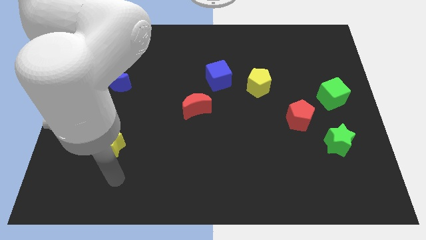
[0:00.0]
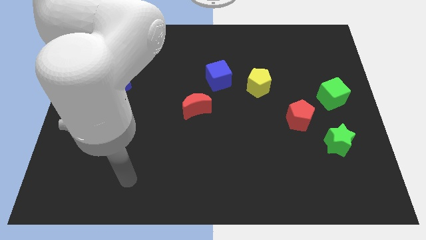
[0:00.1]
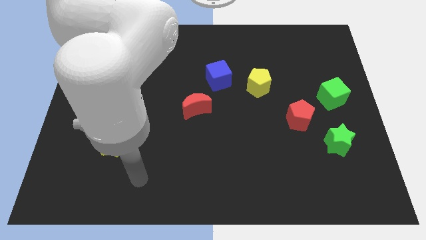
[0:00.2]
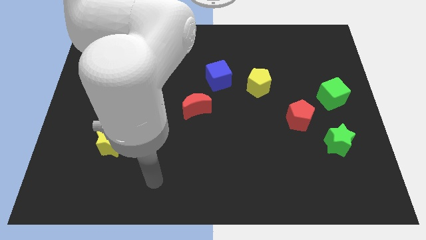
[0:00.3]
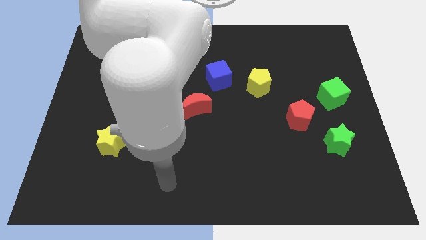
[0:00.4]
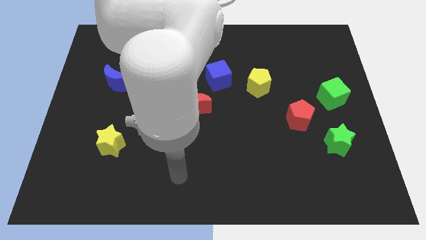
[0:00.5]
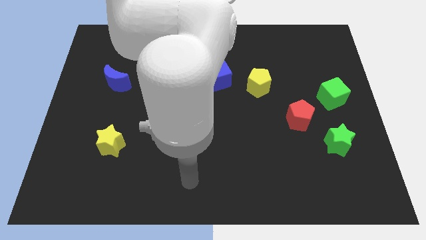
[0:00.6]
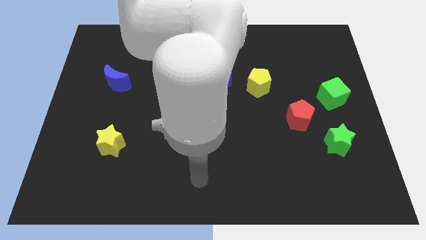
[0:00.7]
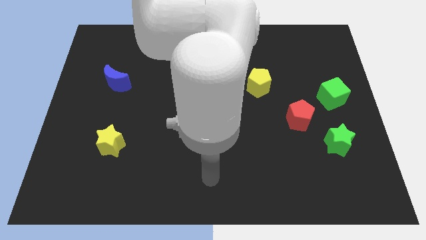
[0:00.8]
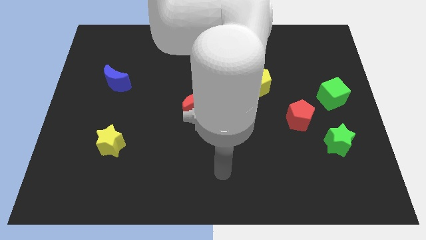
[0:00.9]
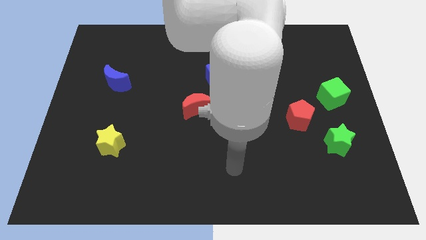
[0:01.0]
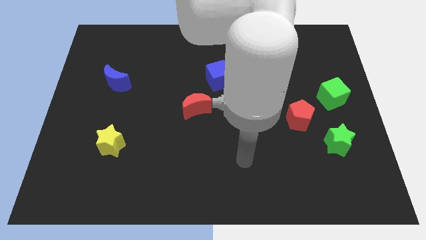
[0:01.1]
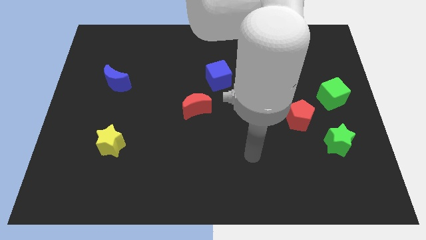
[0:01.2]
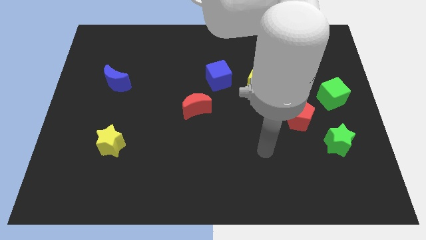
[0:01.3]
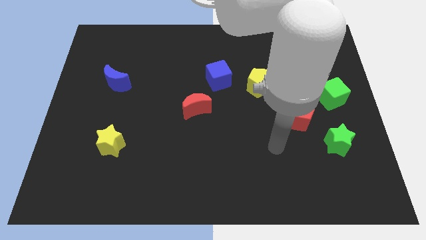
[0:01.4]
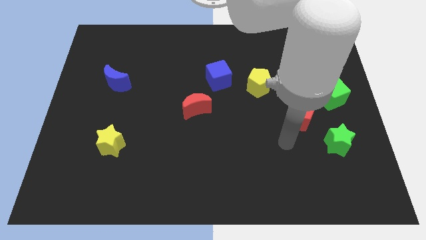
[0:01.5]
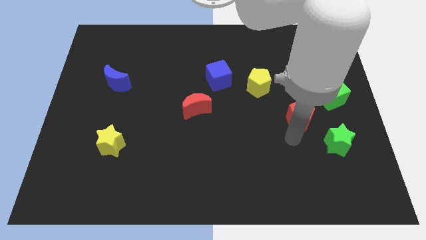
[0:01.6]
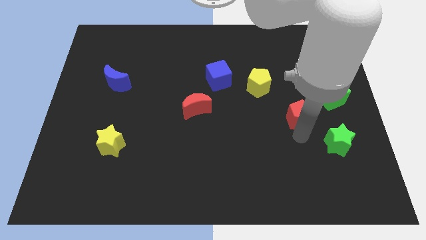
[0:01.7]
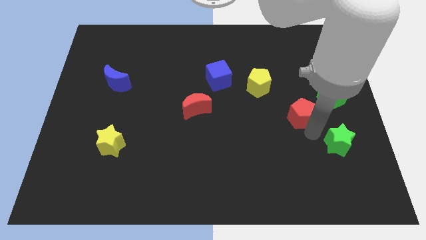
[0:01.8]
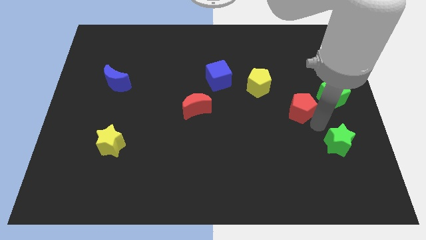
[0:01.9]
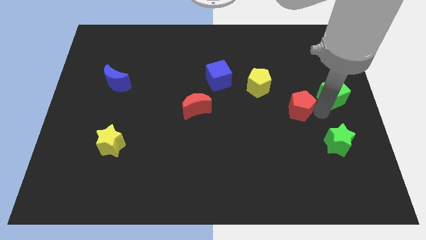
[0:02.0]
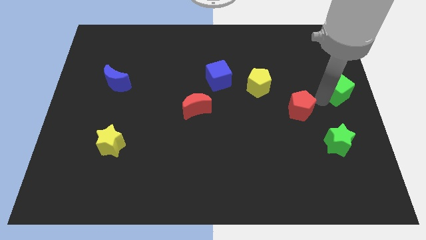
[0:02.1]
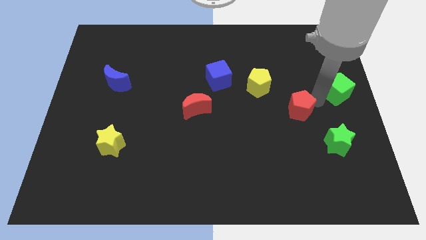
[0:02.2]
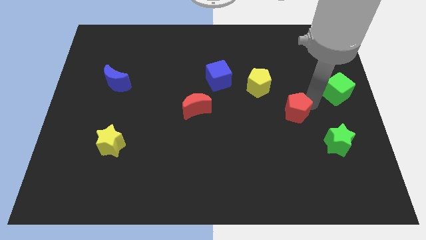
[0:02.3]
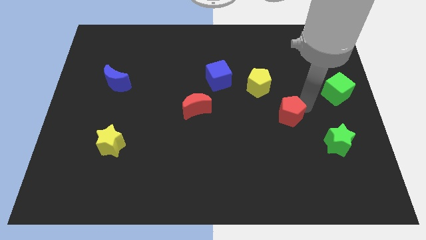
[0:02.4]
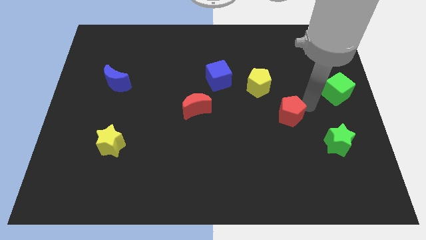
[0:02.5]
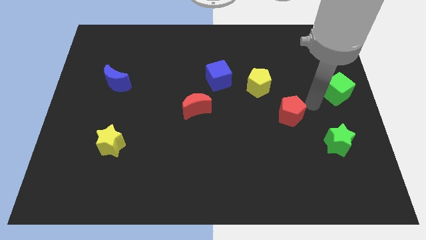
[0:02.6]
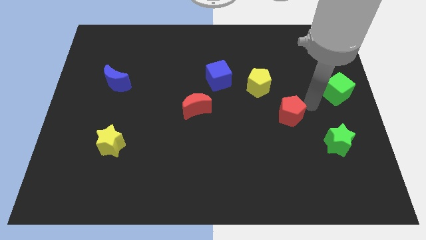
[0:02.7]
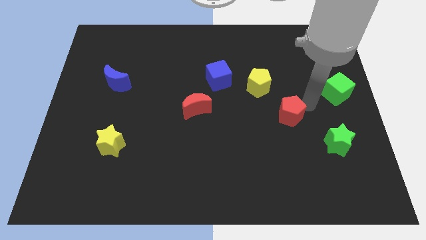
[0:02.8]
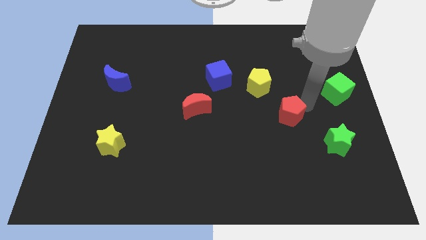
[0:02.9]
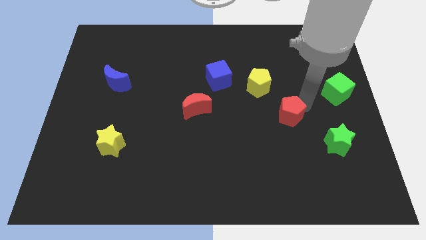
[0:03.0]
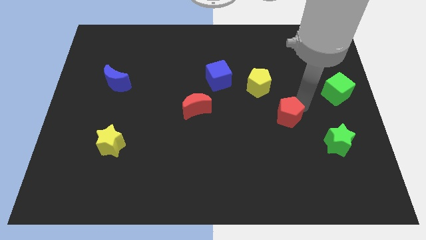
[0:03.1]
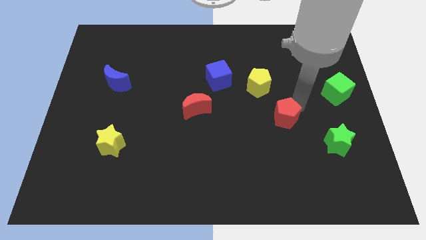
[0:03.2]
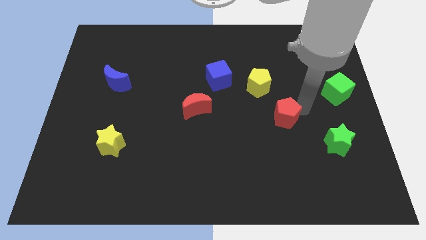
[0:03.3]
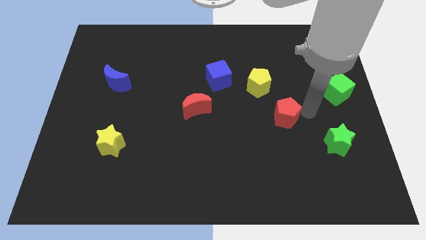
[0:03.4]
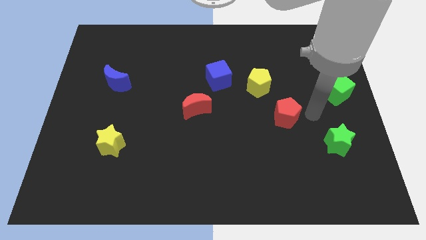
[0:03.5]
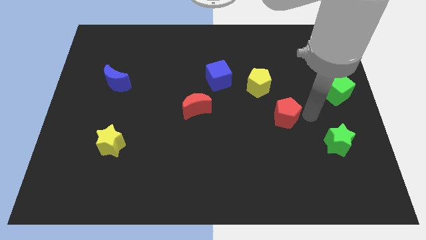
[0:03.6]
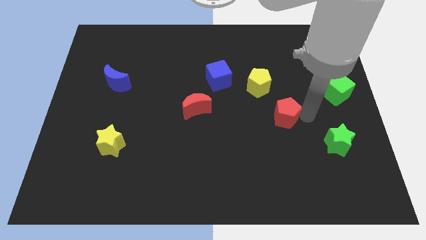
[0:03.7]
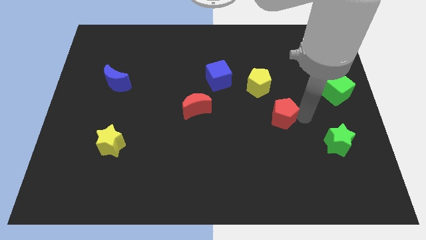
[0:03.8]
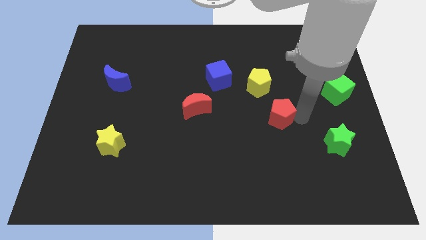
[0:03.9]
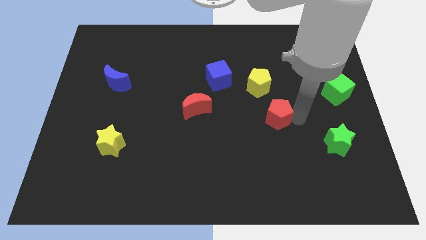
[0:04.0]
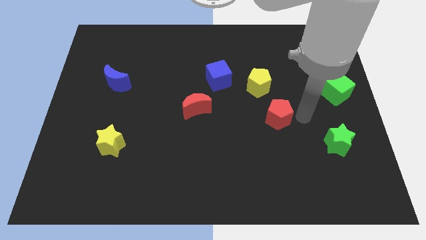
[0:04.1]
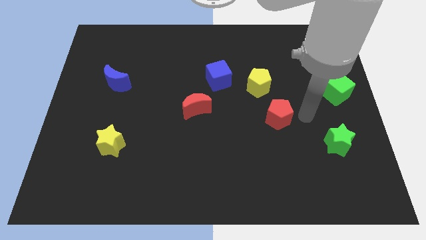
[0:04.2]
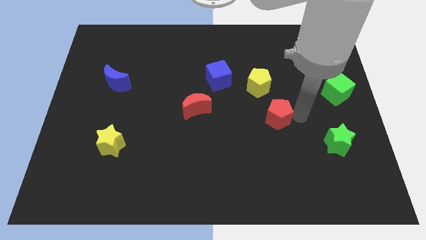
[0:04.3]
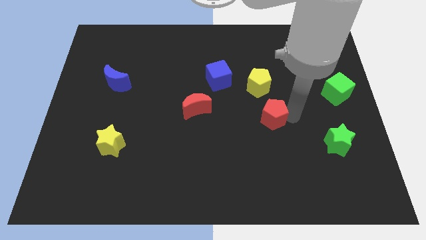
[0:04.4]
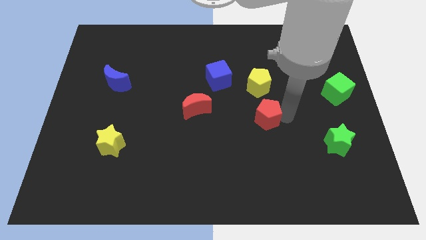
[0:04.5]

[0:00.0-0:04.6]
push the red pentagon a bit to the left

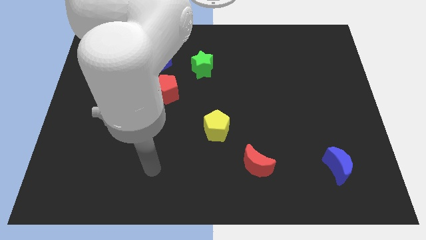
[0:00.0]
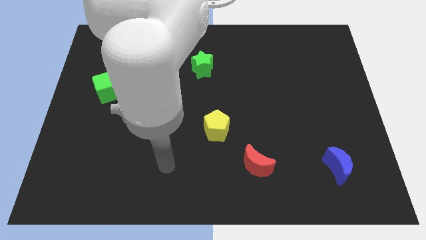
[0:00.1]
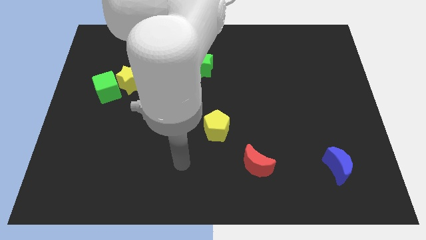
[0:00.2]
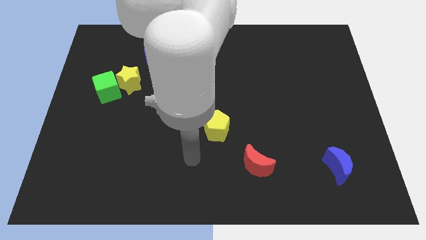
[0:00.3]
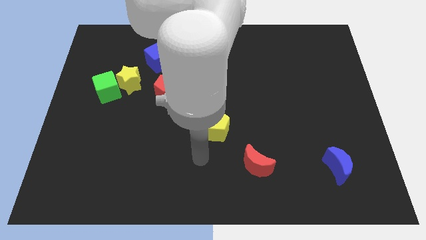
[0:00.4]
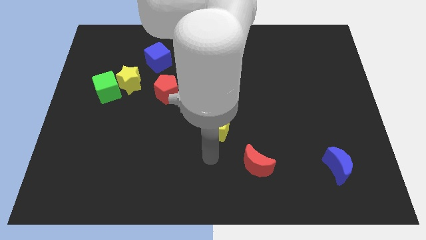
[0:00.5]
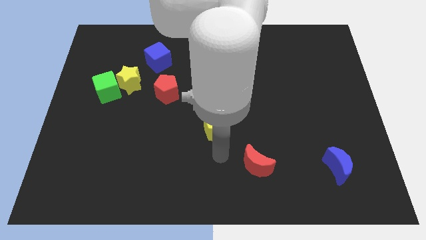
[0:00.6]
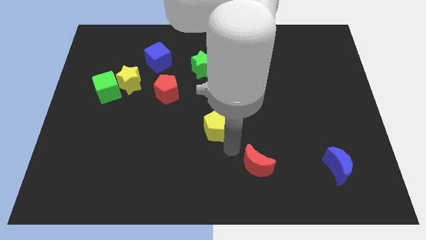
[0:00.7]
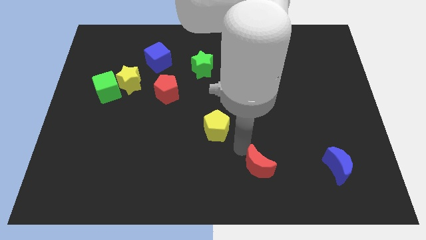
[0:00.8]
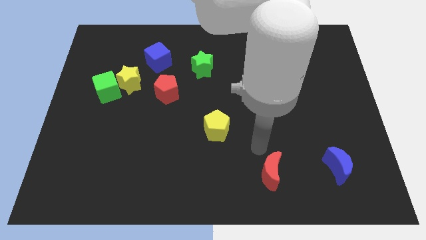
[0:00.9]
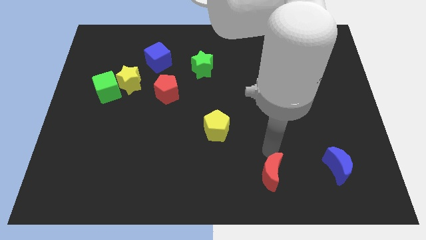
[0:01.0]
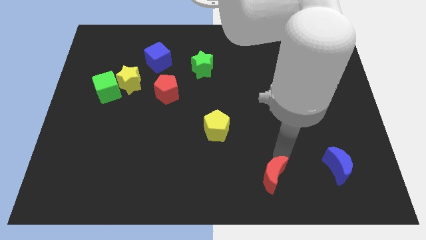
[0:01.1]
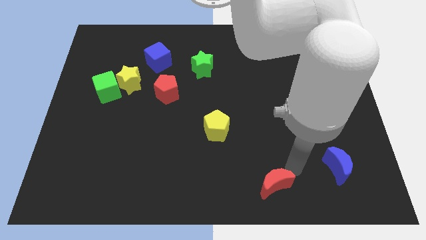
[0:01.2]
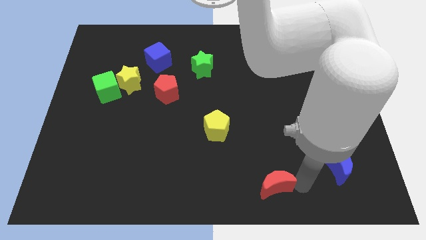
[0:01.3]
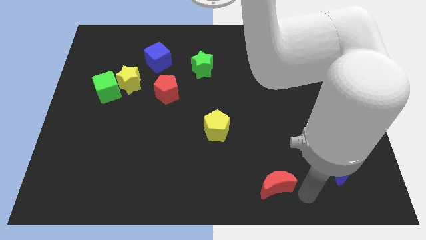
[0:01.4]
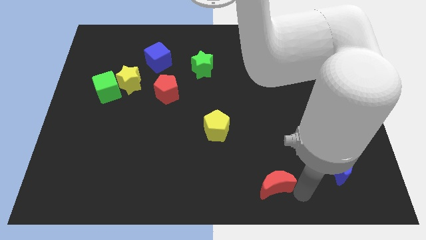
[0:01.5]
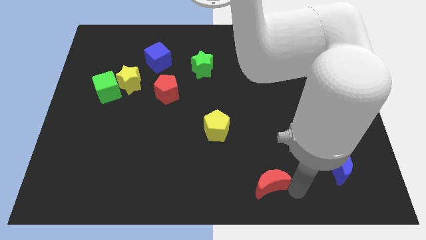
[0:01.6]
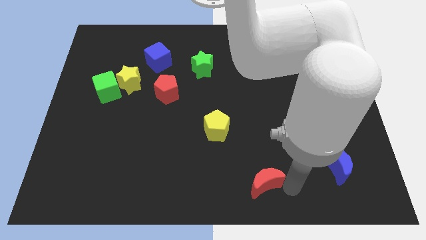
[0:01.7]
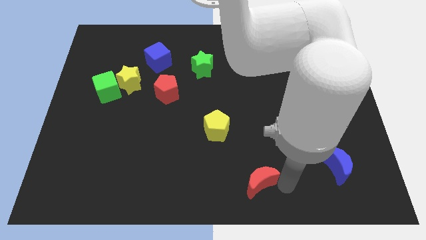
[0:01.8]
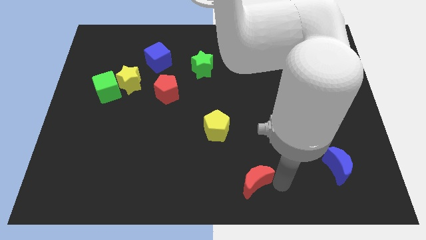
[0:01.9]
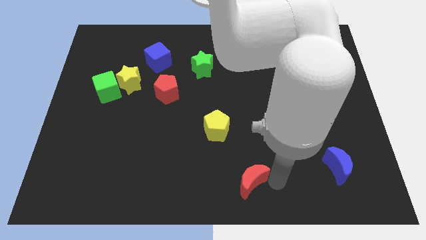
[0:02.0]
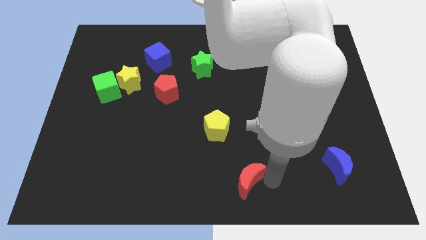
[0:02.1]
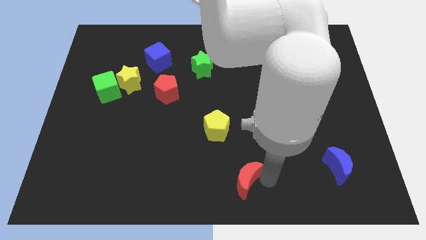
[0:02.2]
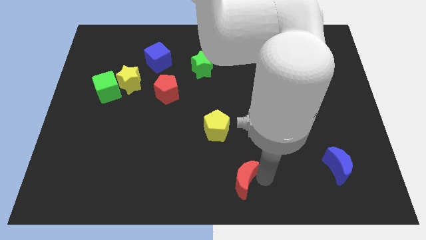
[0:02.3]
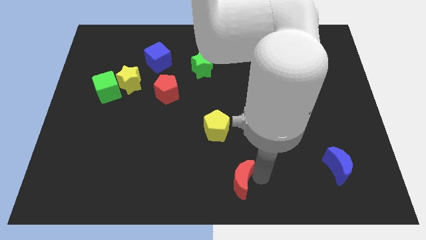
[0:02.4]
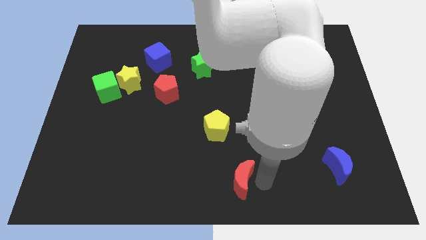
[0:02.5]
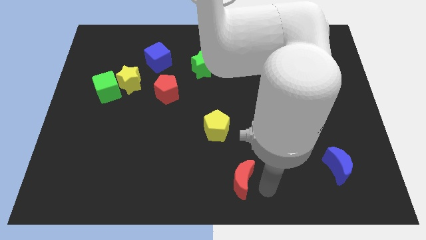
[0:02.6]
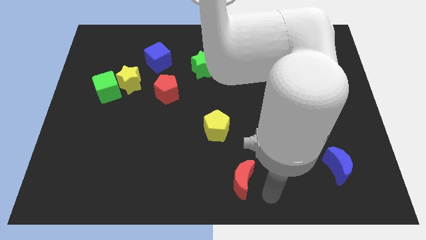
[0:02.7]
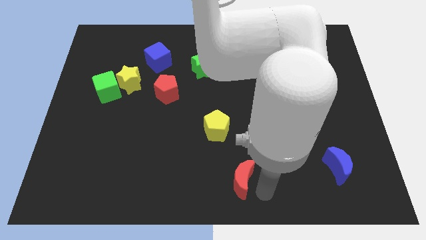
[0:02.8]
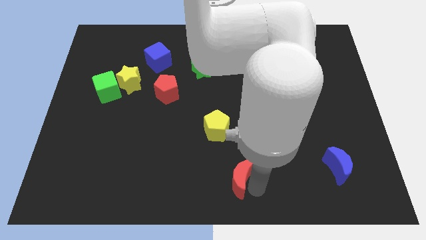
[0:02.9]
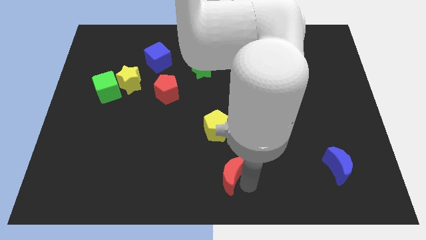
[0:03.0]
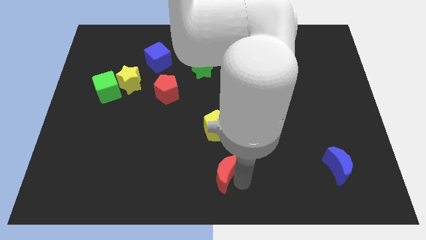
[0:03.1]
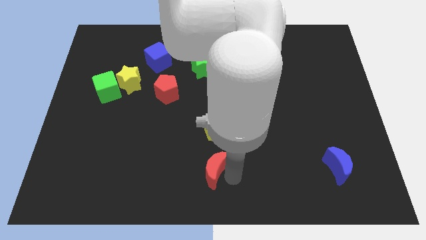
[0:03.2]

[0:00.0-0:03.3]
push the red moon a little left

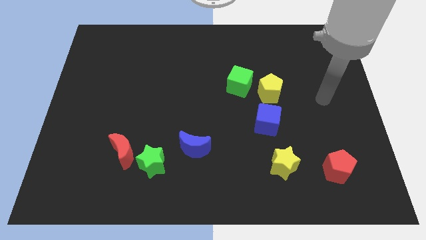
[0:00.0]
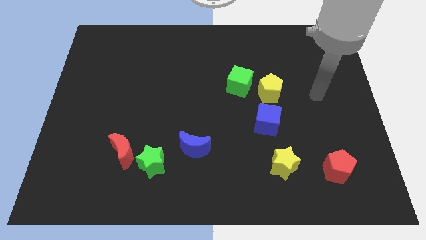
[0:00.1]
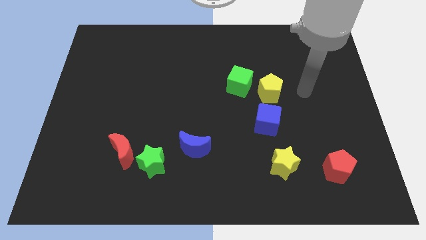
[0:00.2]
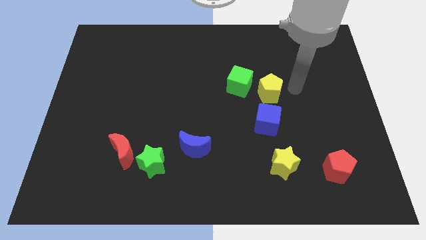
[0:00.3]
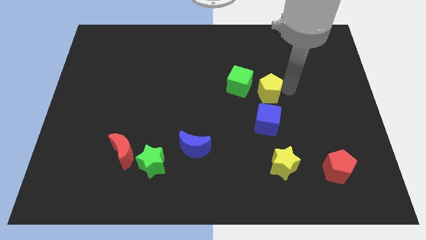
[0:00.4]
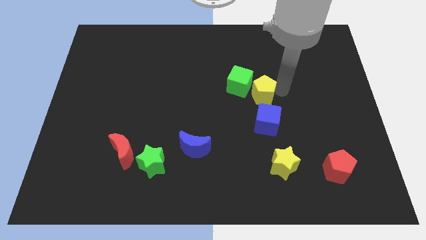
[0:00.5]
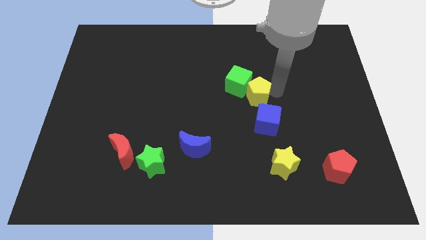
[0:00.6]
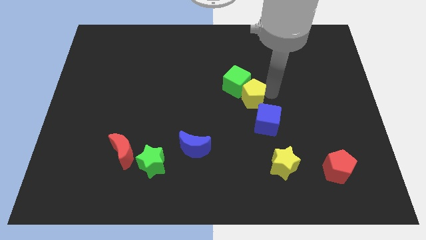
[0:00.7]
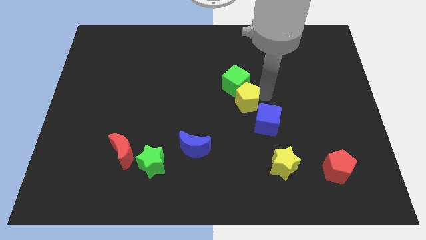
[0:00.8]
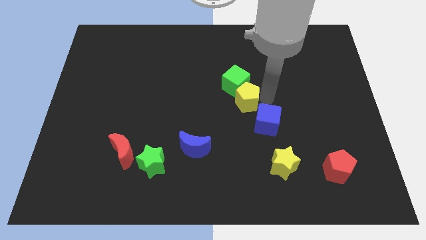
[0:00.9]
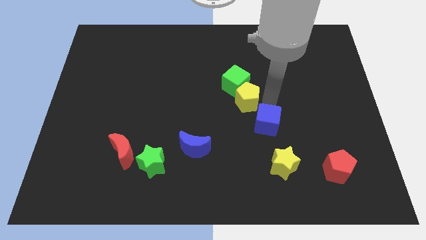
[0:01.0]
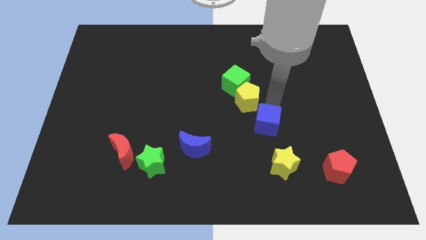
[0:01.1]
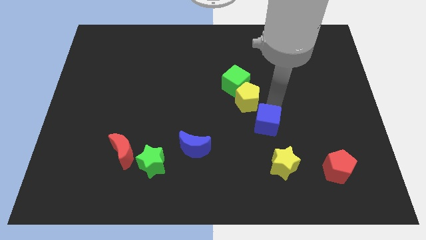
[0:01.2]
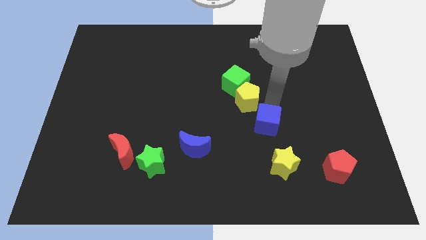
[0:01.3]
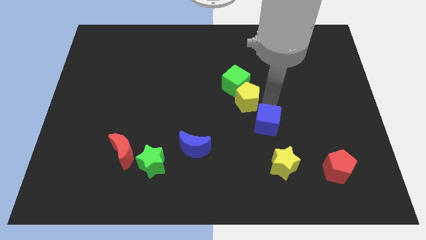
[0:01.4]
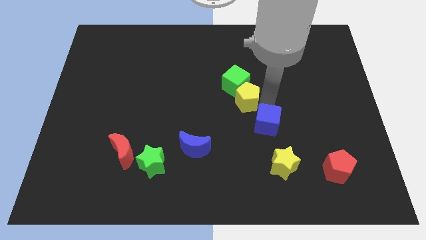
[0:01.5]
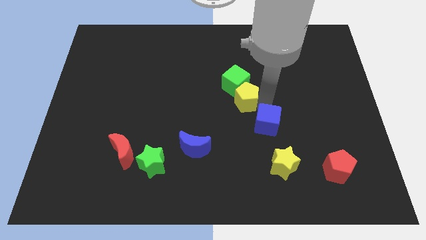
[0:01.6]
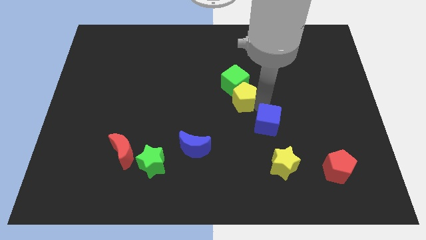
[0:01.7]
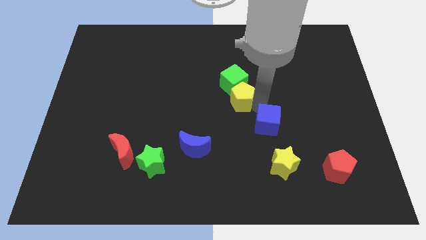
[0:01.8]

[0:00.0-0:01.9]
slightly move the yellow pentagon left
